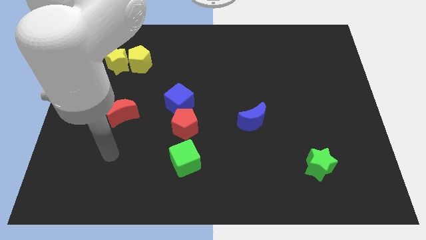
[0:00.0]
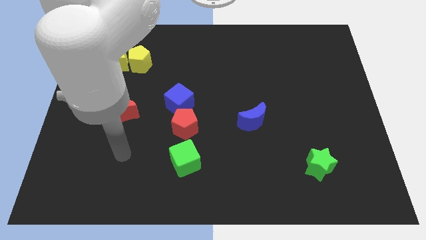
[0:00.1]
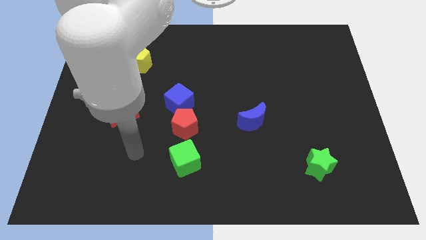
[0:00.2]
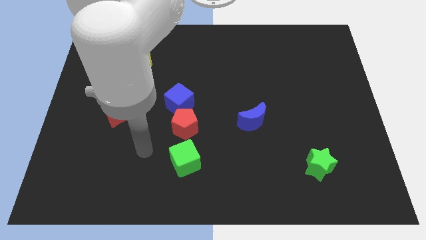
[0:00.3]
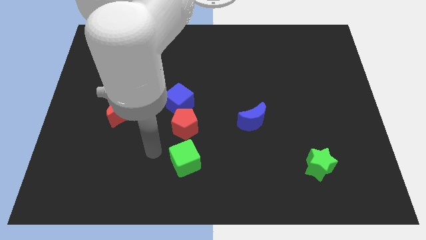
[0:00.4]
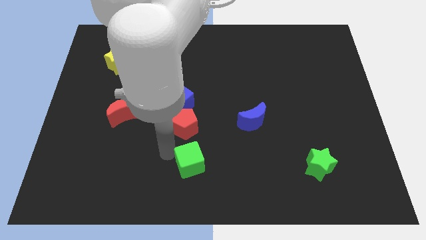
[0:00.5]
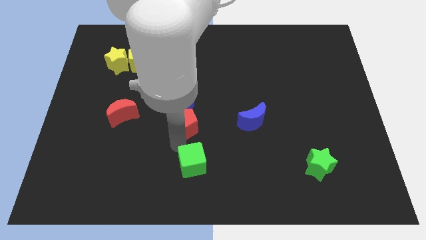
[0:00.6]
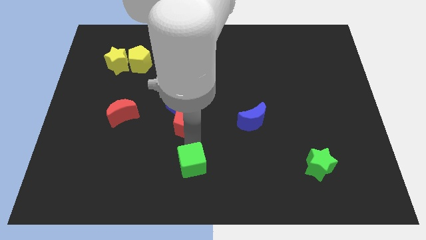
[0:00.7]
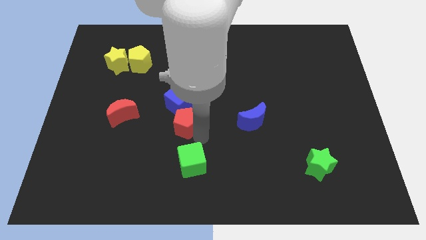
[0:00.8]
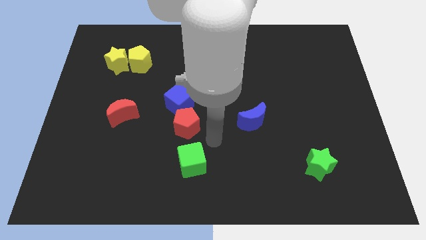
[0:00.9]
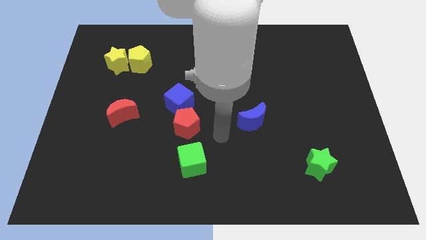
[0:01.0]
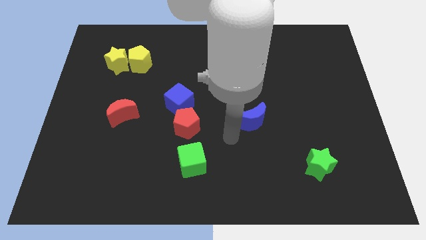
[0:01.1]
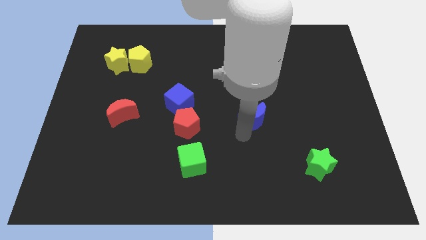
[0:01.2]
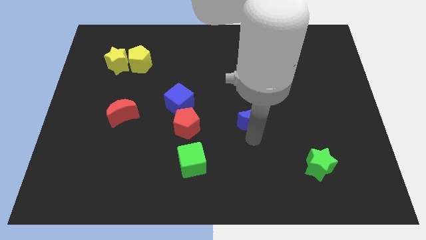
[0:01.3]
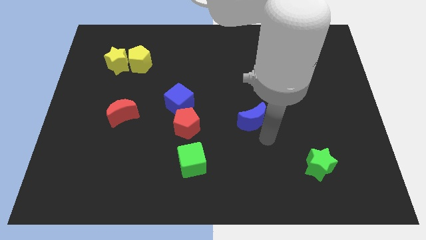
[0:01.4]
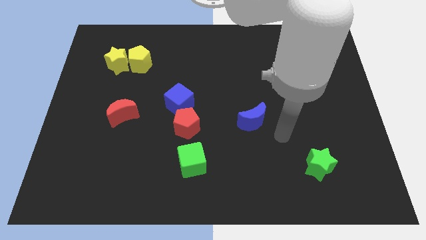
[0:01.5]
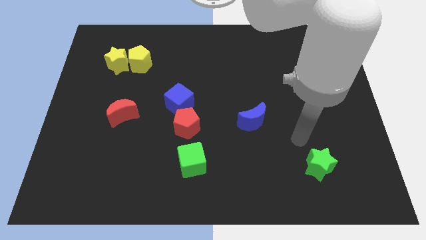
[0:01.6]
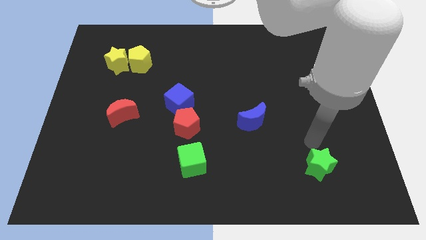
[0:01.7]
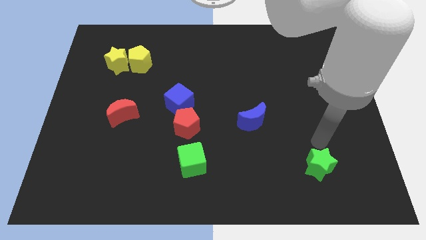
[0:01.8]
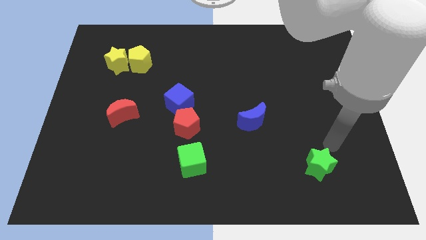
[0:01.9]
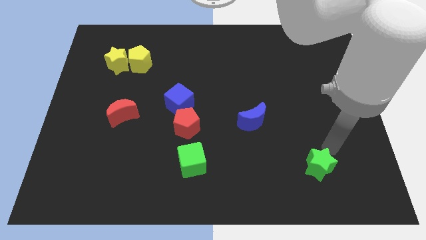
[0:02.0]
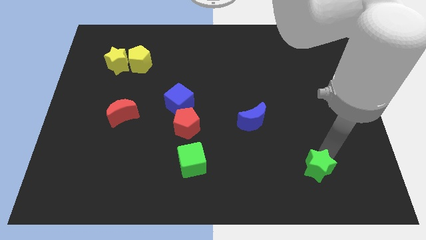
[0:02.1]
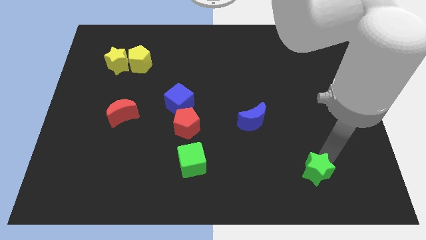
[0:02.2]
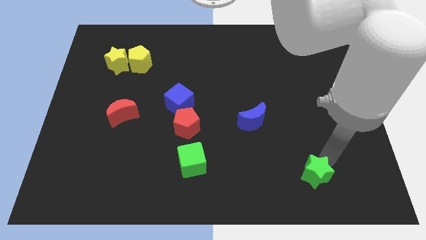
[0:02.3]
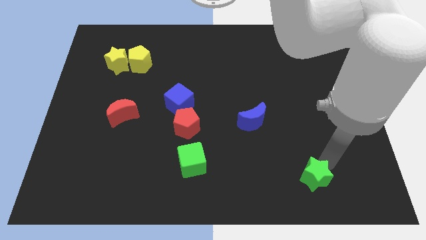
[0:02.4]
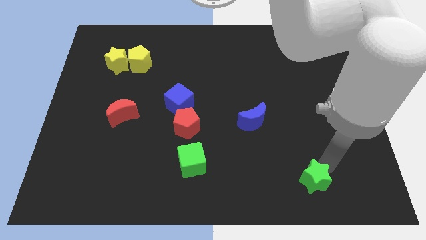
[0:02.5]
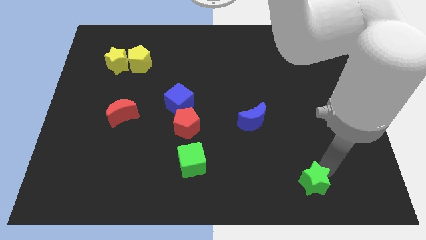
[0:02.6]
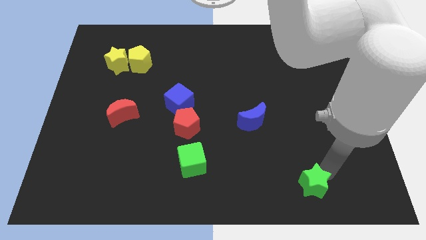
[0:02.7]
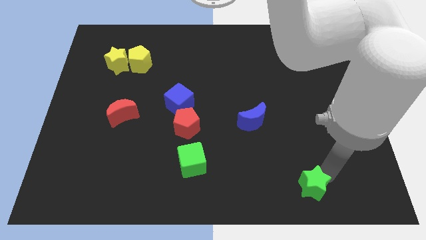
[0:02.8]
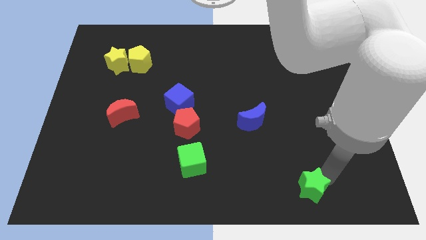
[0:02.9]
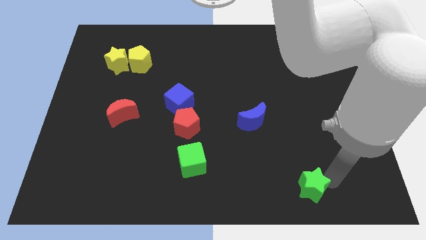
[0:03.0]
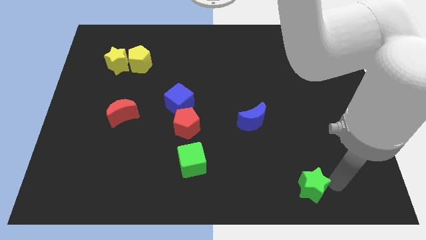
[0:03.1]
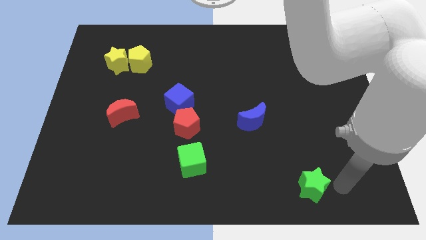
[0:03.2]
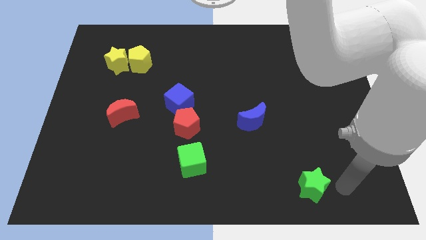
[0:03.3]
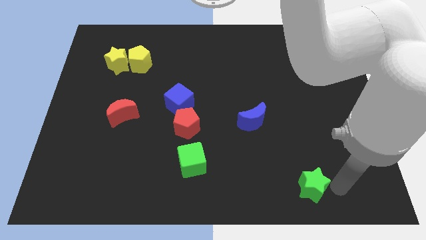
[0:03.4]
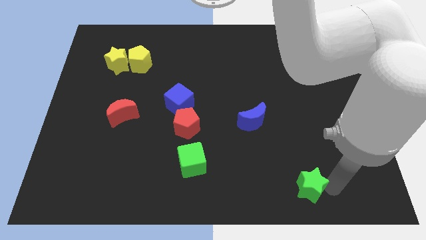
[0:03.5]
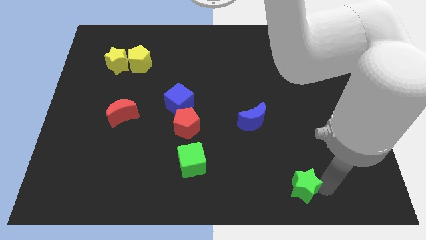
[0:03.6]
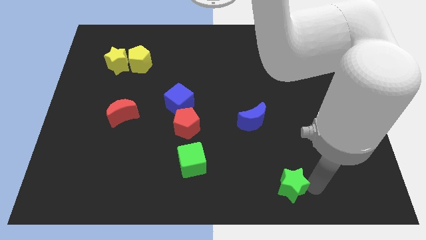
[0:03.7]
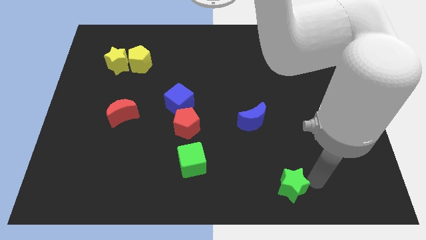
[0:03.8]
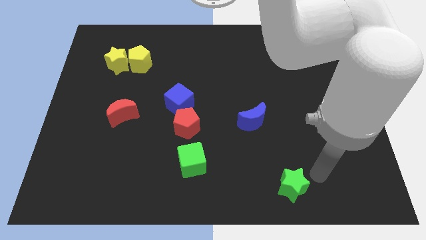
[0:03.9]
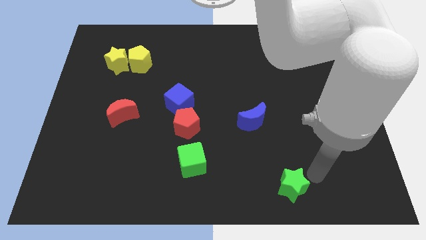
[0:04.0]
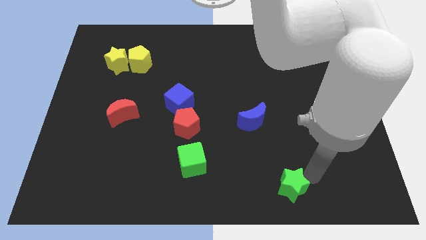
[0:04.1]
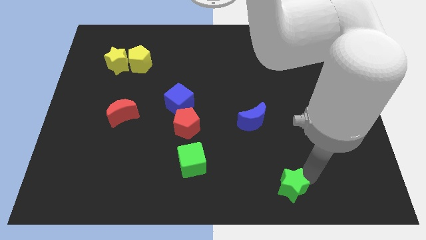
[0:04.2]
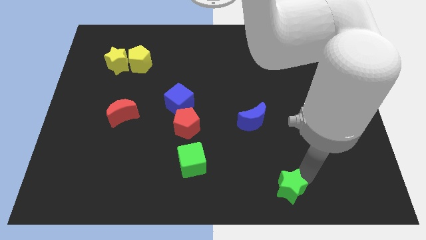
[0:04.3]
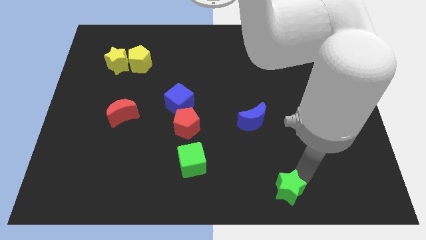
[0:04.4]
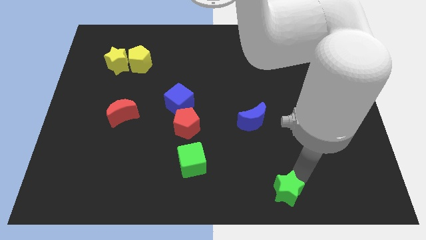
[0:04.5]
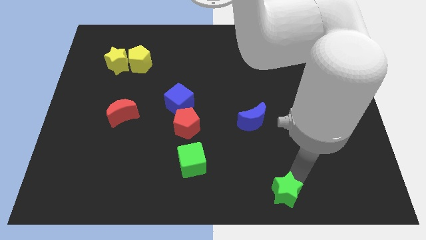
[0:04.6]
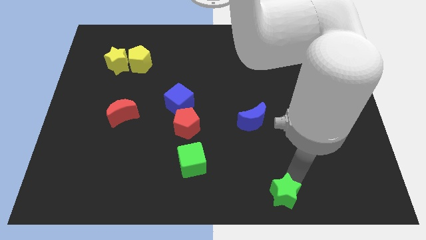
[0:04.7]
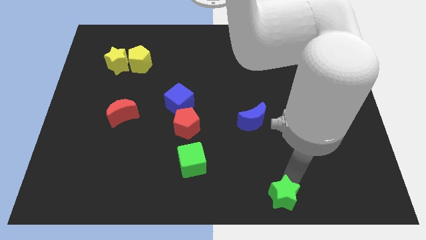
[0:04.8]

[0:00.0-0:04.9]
push the green star to the bottom side
